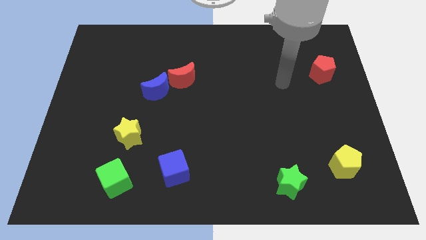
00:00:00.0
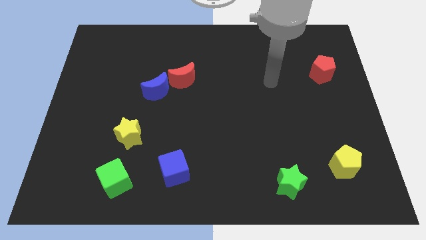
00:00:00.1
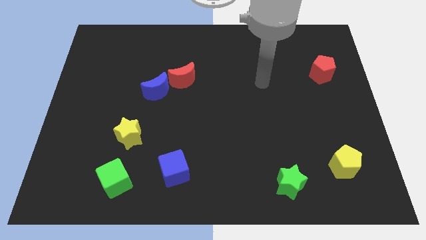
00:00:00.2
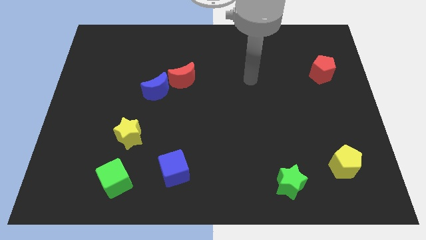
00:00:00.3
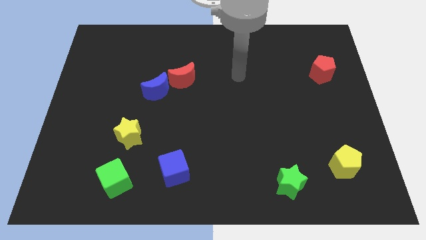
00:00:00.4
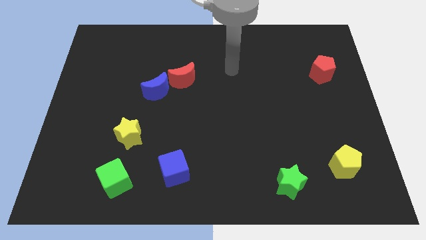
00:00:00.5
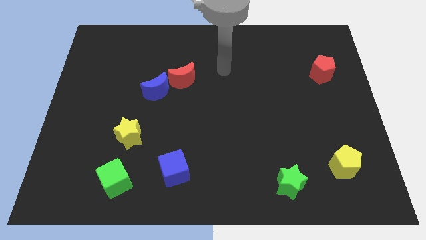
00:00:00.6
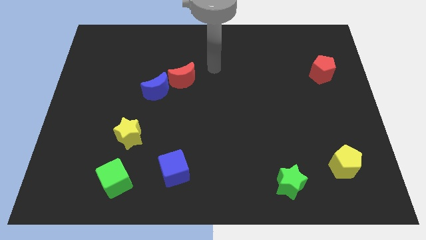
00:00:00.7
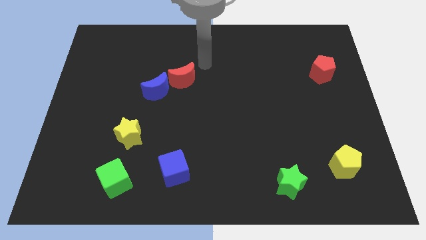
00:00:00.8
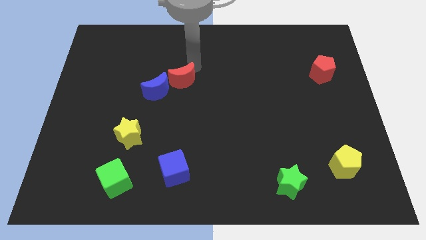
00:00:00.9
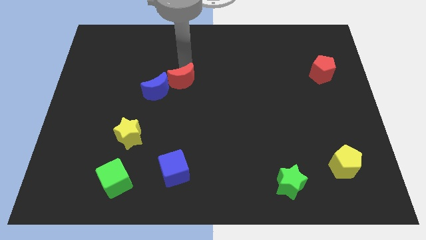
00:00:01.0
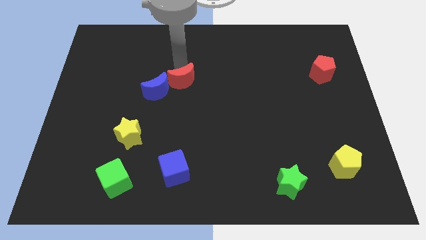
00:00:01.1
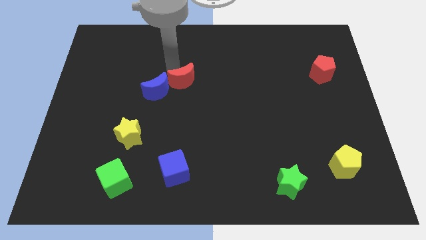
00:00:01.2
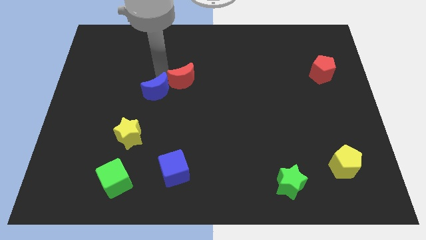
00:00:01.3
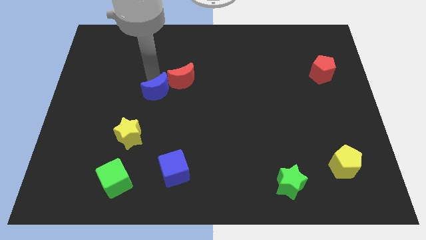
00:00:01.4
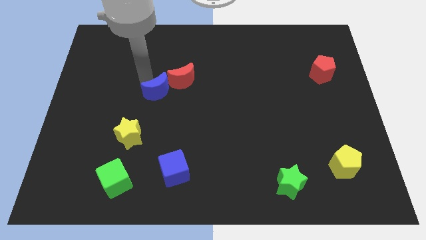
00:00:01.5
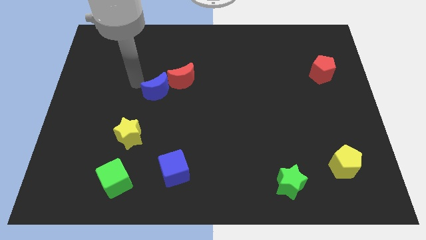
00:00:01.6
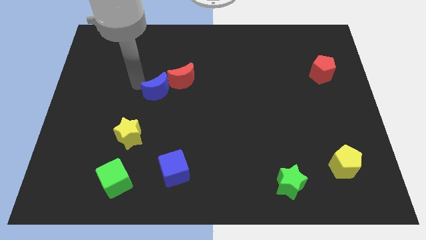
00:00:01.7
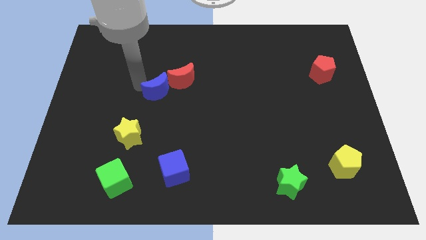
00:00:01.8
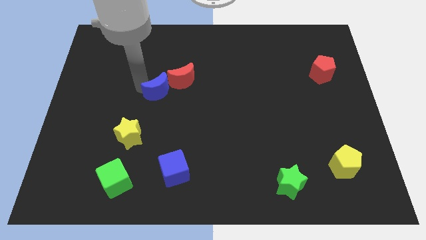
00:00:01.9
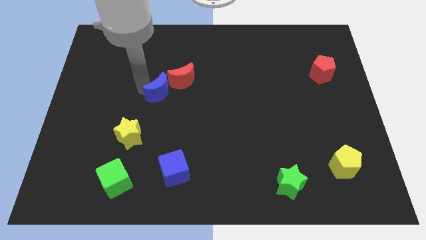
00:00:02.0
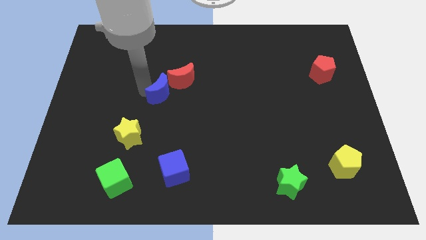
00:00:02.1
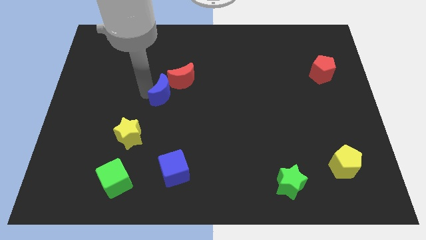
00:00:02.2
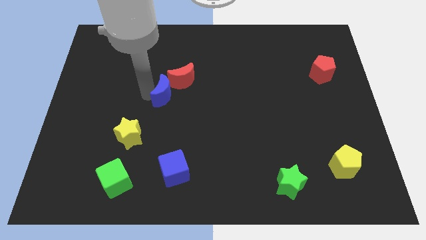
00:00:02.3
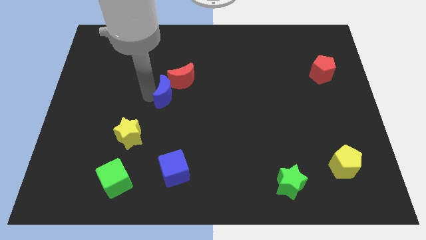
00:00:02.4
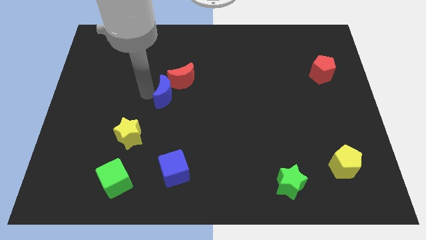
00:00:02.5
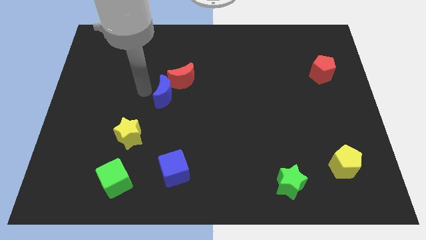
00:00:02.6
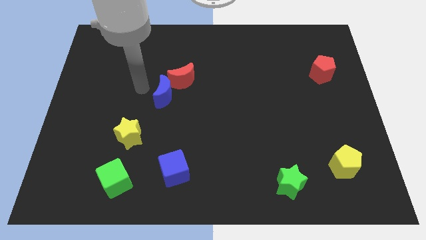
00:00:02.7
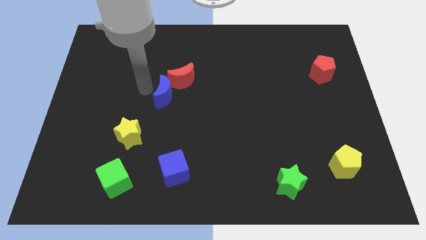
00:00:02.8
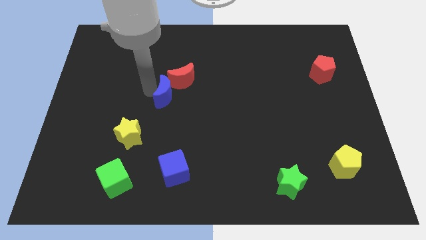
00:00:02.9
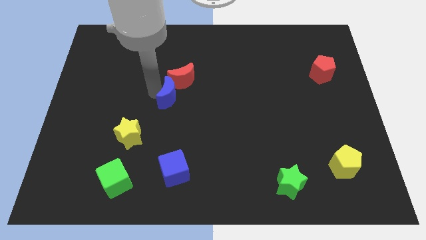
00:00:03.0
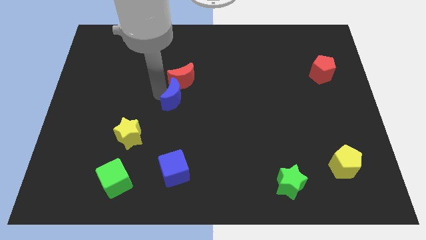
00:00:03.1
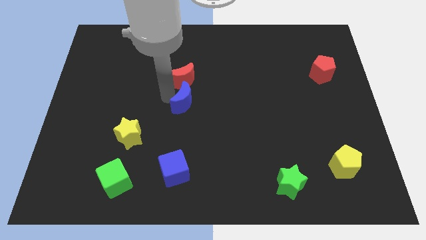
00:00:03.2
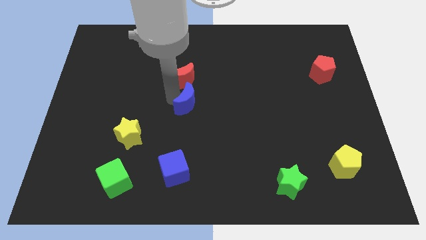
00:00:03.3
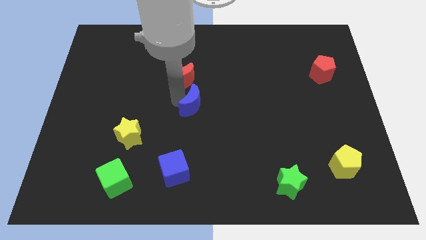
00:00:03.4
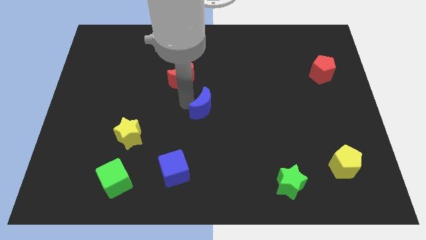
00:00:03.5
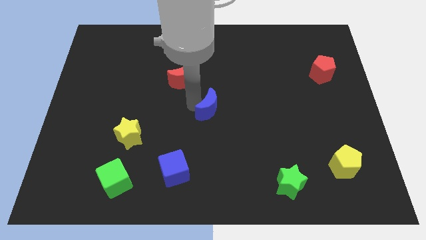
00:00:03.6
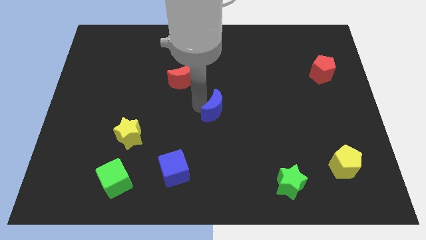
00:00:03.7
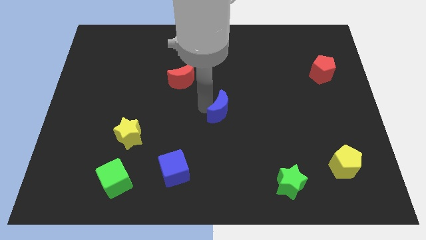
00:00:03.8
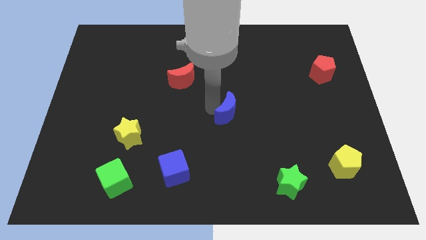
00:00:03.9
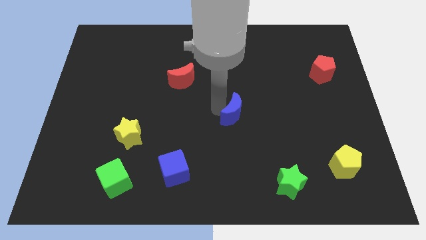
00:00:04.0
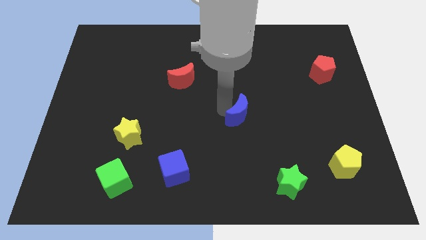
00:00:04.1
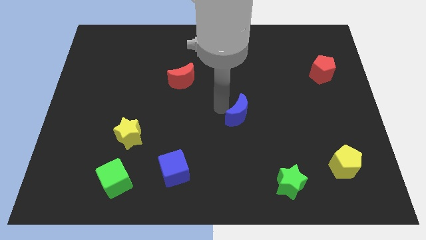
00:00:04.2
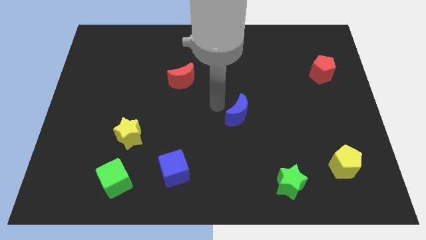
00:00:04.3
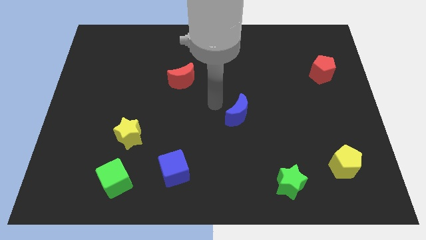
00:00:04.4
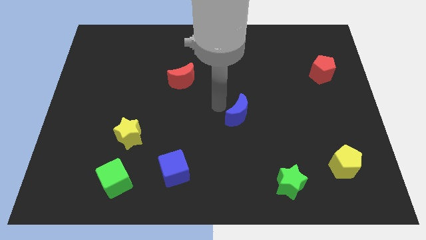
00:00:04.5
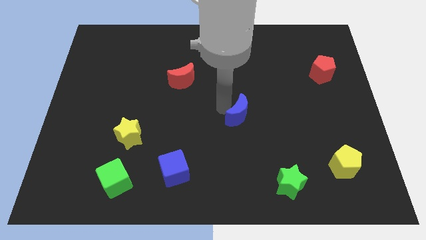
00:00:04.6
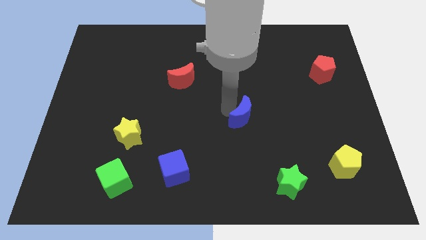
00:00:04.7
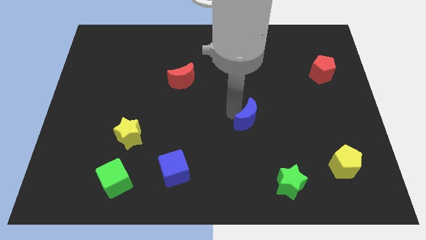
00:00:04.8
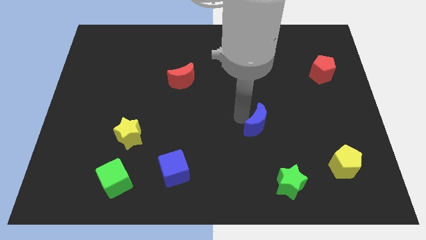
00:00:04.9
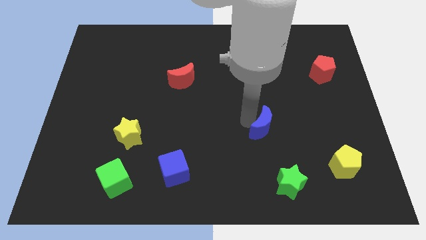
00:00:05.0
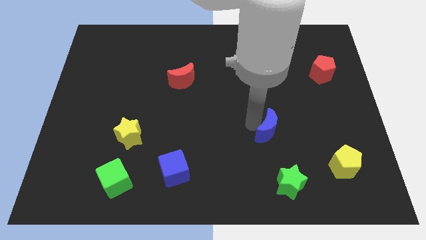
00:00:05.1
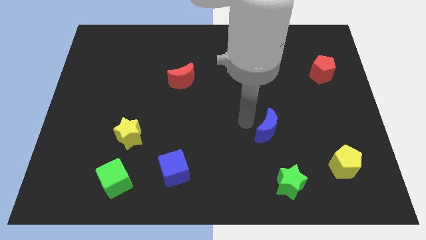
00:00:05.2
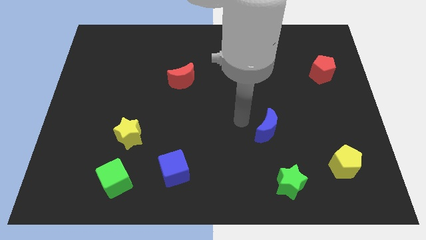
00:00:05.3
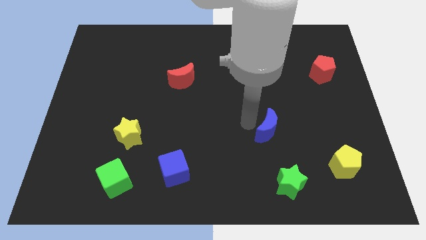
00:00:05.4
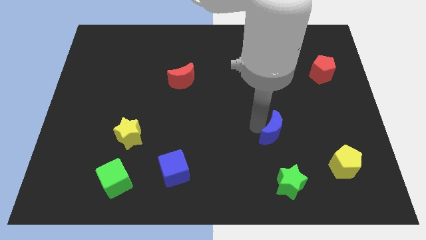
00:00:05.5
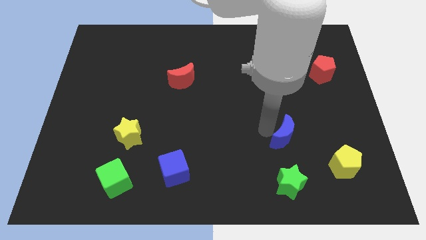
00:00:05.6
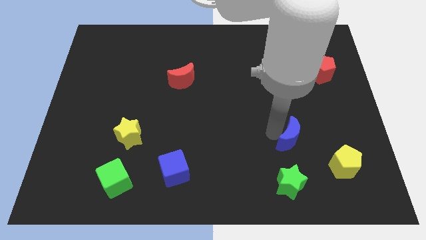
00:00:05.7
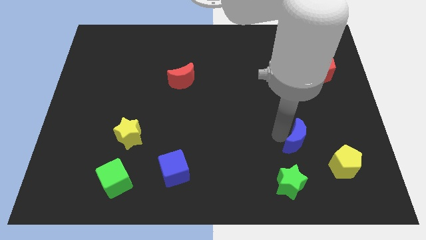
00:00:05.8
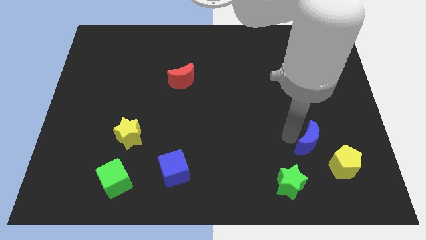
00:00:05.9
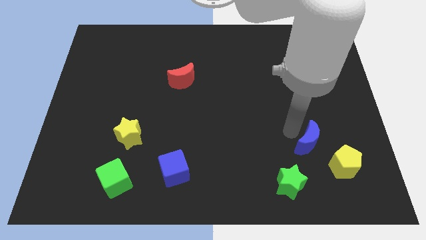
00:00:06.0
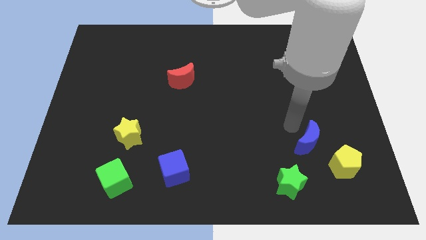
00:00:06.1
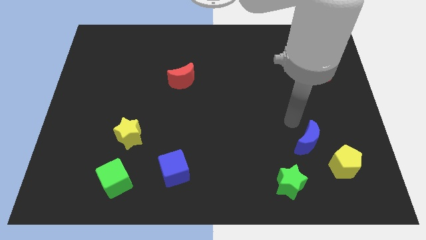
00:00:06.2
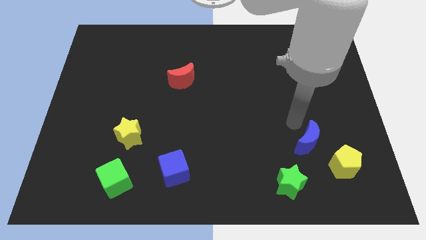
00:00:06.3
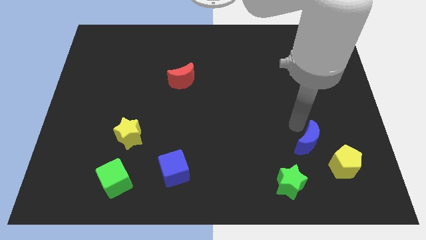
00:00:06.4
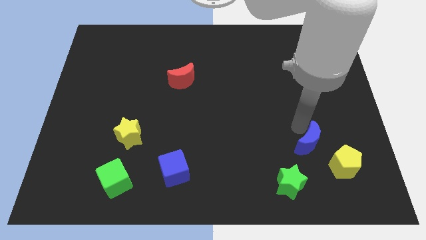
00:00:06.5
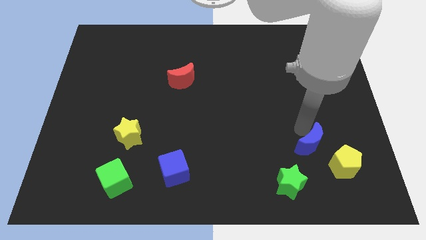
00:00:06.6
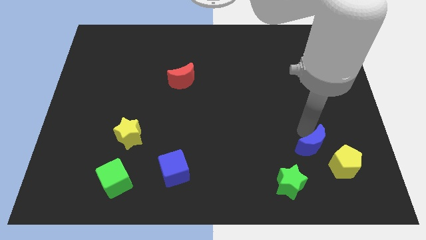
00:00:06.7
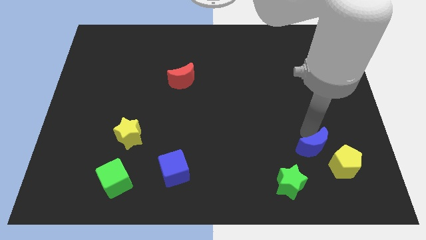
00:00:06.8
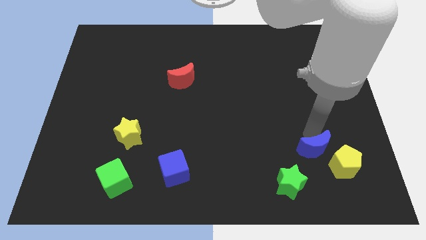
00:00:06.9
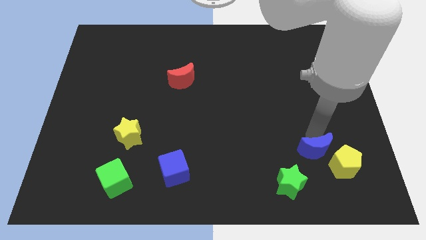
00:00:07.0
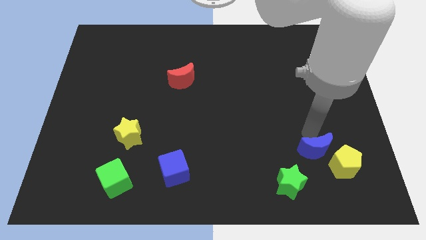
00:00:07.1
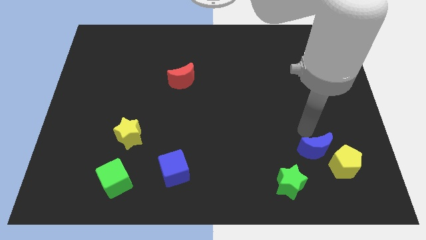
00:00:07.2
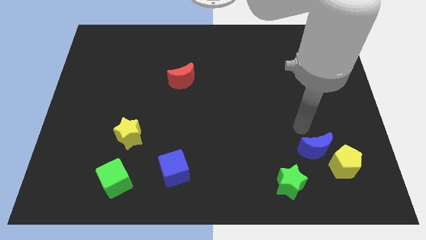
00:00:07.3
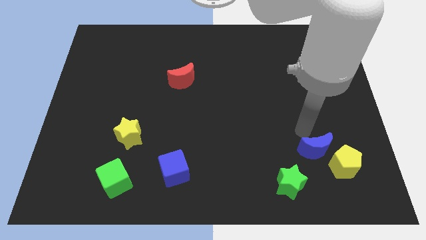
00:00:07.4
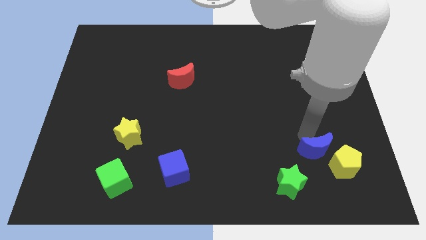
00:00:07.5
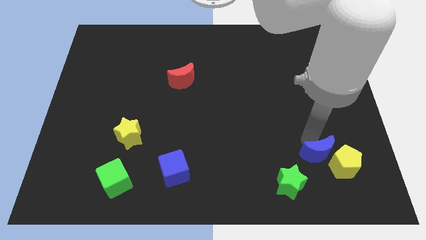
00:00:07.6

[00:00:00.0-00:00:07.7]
move the blue moon towards the yellow pentagon
